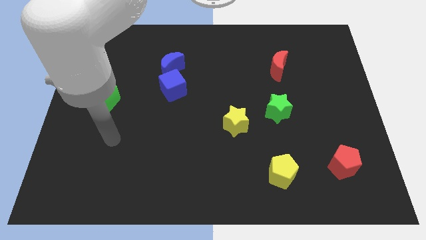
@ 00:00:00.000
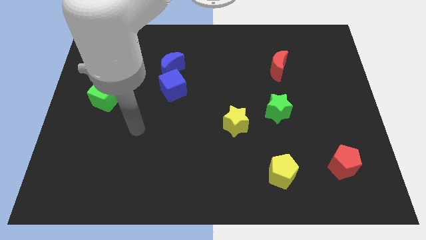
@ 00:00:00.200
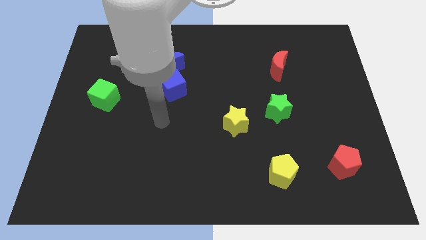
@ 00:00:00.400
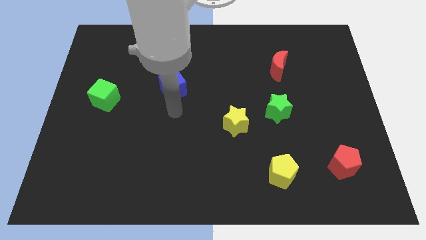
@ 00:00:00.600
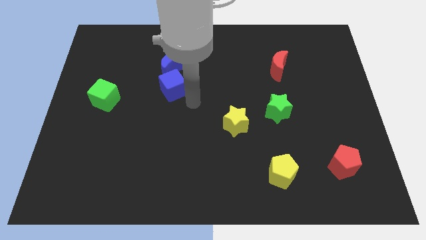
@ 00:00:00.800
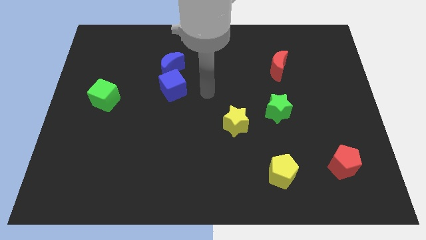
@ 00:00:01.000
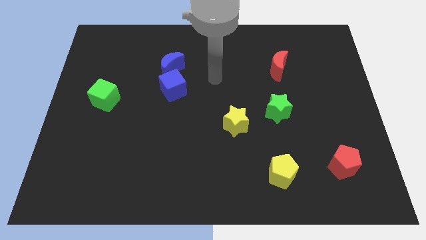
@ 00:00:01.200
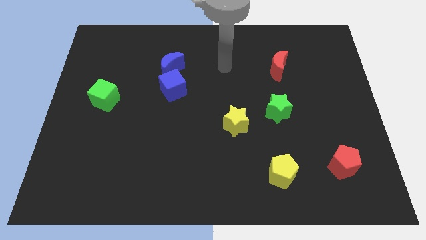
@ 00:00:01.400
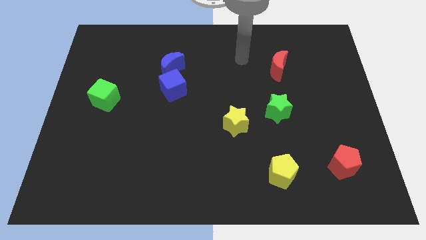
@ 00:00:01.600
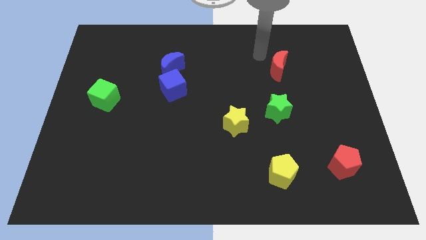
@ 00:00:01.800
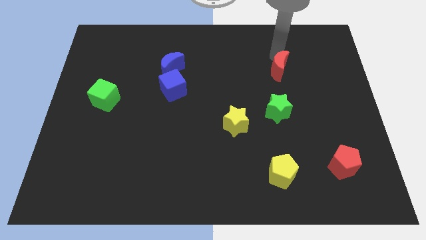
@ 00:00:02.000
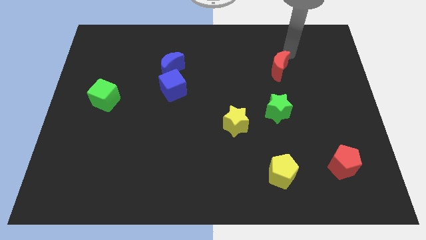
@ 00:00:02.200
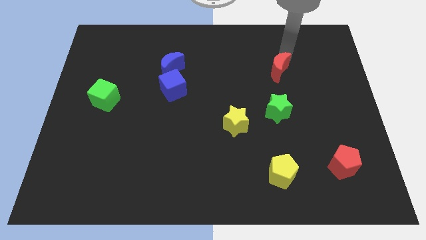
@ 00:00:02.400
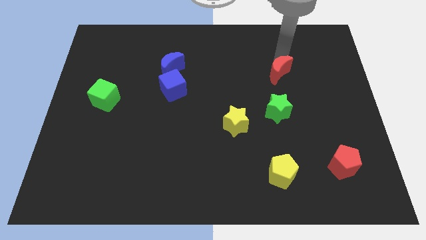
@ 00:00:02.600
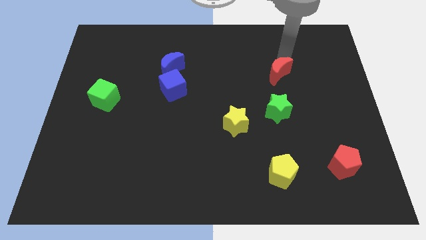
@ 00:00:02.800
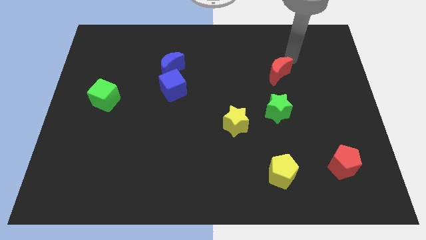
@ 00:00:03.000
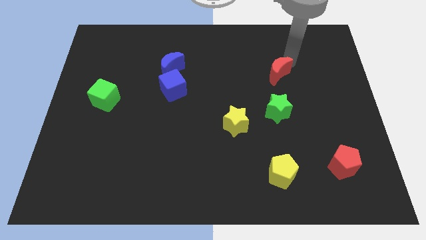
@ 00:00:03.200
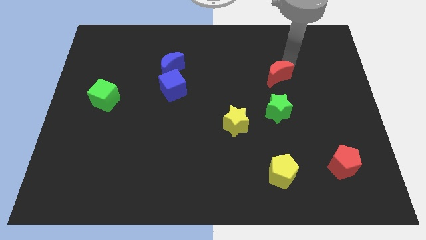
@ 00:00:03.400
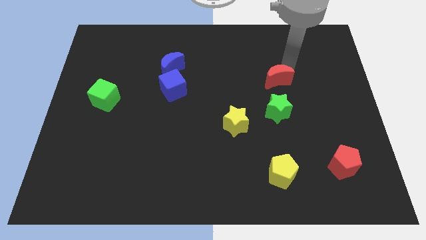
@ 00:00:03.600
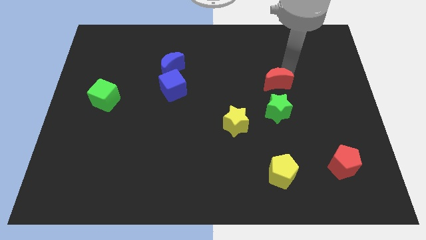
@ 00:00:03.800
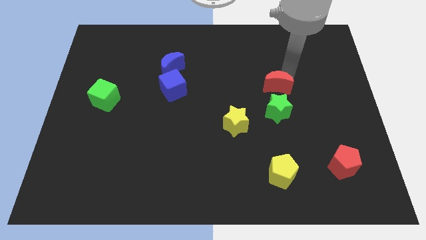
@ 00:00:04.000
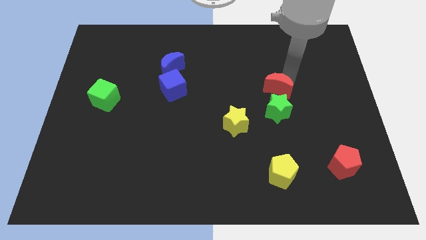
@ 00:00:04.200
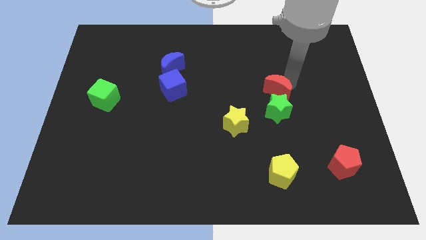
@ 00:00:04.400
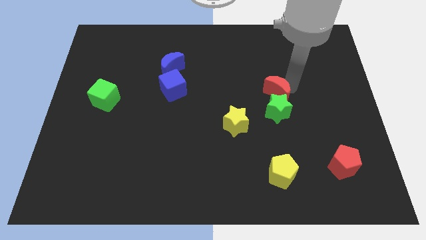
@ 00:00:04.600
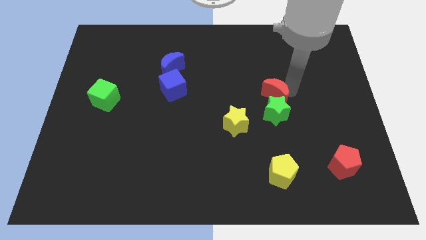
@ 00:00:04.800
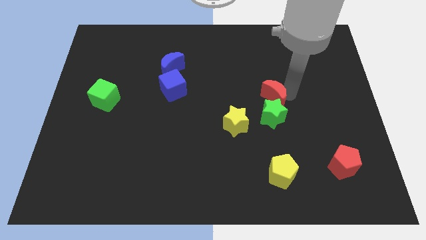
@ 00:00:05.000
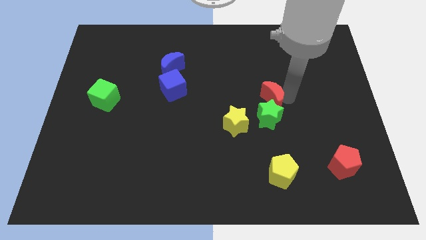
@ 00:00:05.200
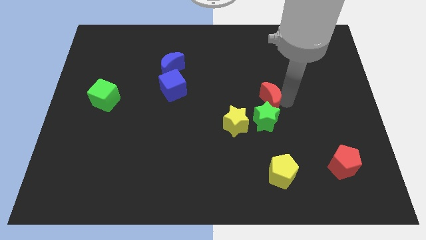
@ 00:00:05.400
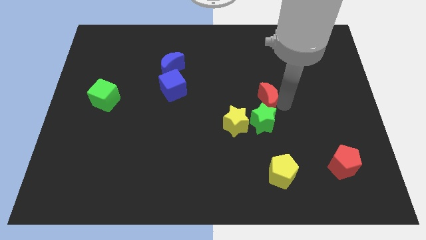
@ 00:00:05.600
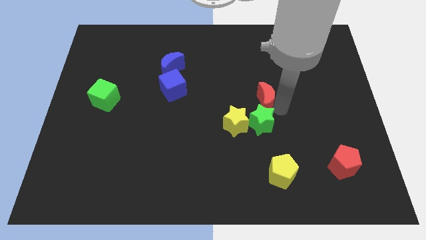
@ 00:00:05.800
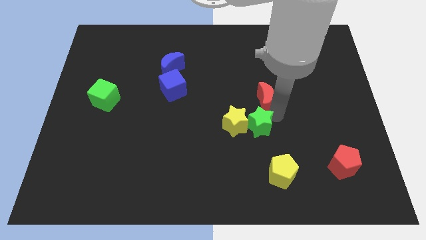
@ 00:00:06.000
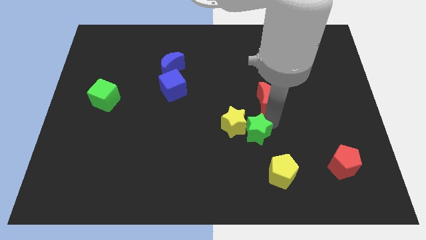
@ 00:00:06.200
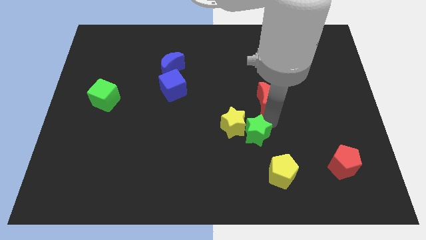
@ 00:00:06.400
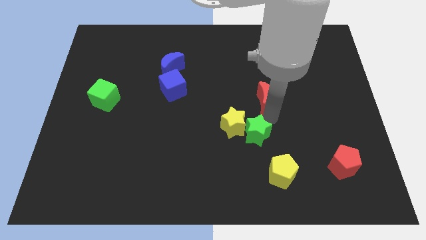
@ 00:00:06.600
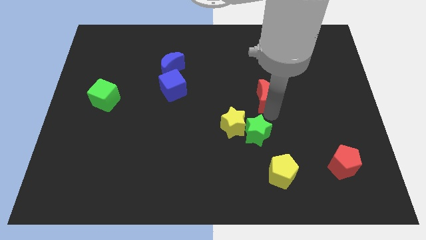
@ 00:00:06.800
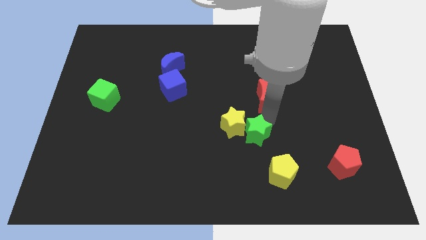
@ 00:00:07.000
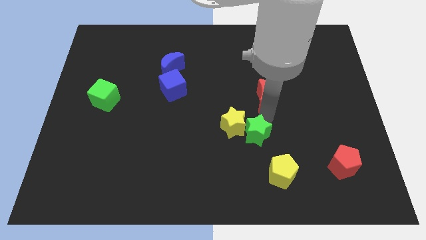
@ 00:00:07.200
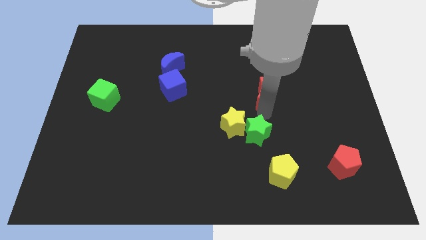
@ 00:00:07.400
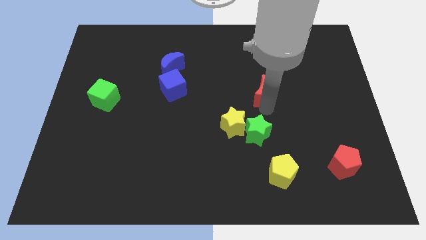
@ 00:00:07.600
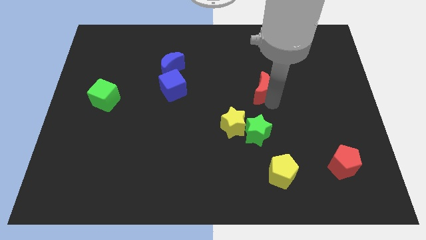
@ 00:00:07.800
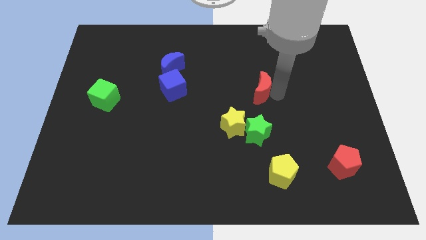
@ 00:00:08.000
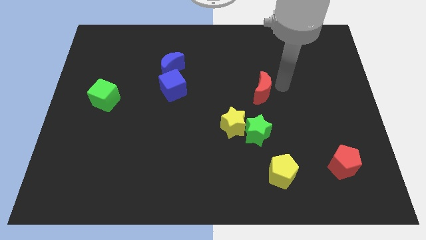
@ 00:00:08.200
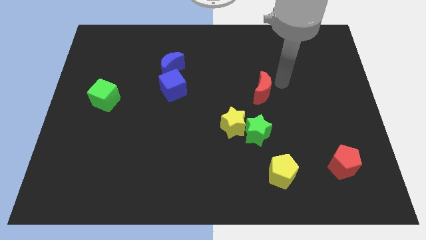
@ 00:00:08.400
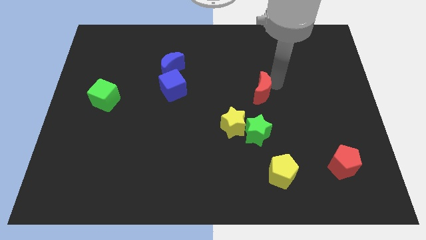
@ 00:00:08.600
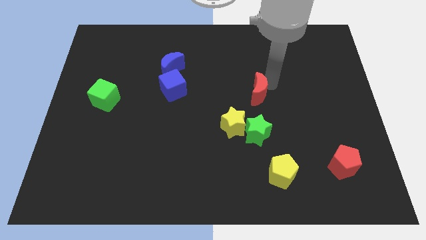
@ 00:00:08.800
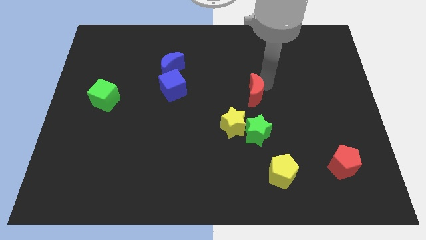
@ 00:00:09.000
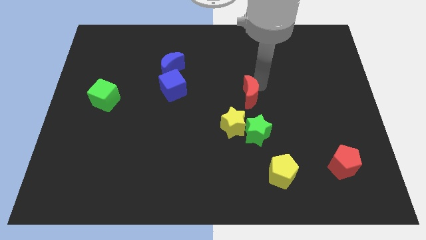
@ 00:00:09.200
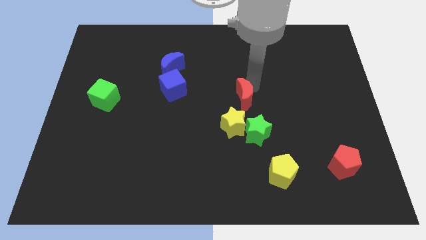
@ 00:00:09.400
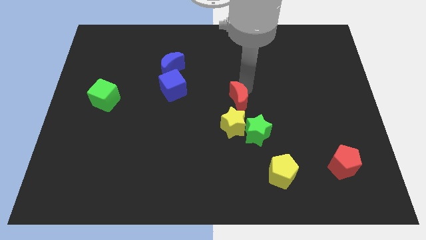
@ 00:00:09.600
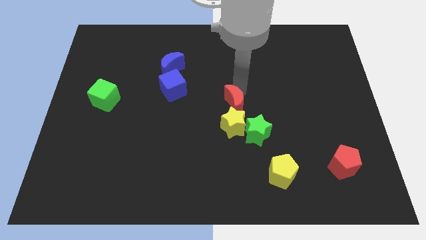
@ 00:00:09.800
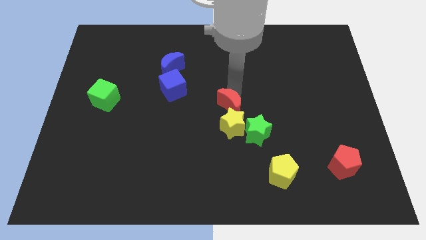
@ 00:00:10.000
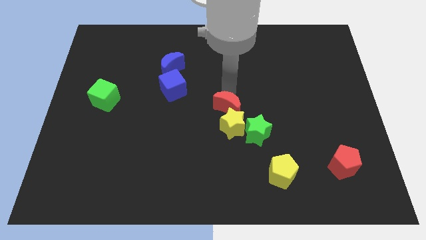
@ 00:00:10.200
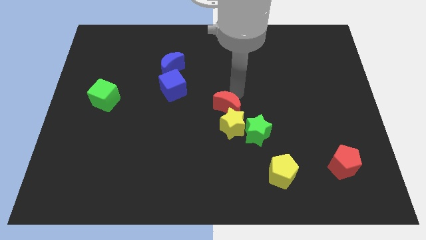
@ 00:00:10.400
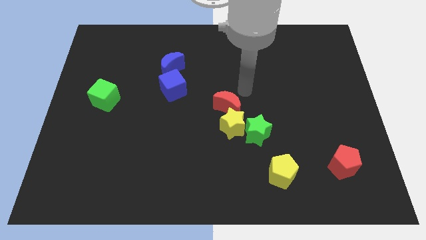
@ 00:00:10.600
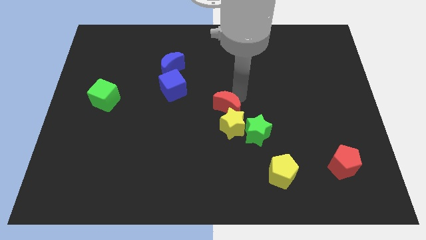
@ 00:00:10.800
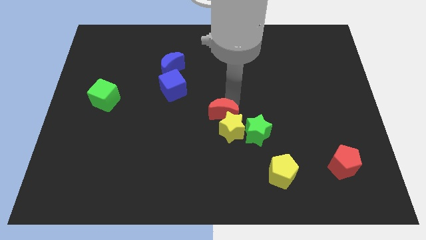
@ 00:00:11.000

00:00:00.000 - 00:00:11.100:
move the red moon down and to the left

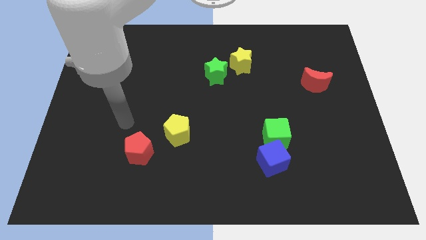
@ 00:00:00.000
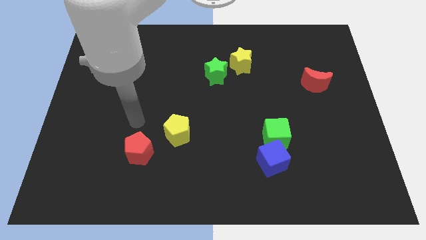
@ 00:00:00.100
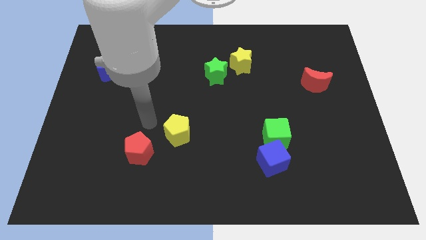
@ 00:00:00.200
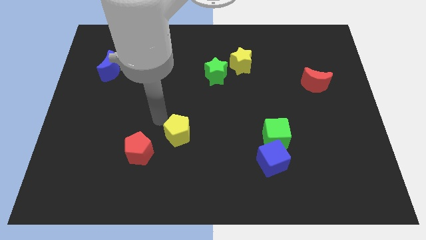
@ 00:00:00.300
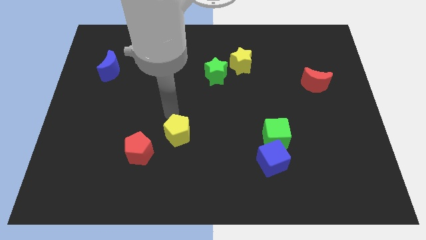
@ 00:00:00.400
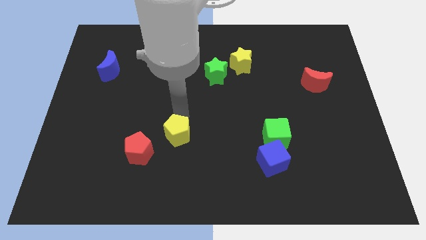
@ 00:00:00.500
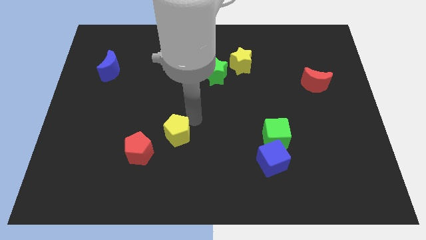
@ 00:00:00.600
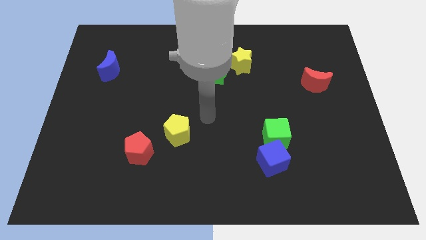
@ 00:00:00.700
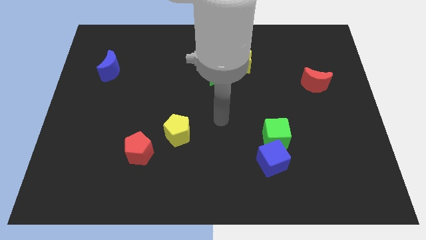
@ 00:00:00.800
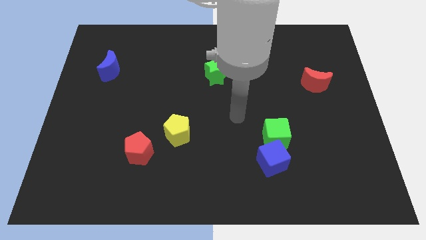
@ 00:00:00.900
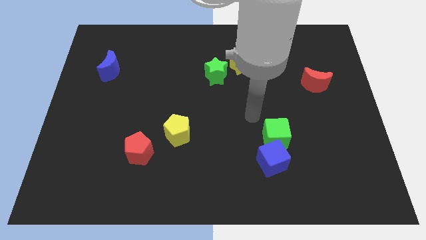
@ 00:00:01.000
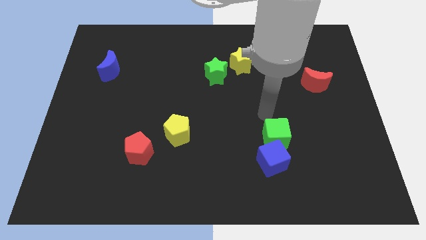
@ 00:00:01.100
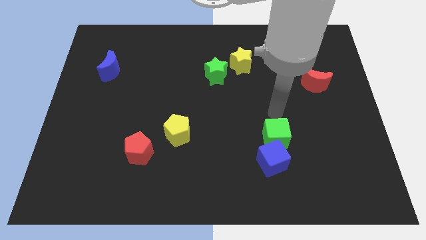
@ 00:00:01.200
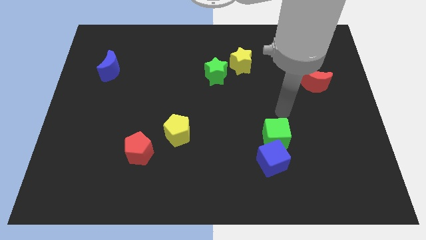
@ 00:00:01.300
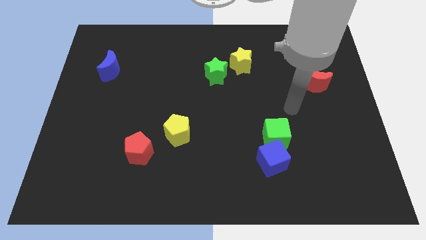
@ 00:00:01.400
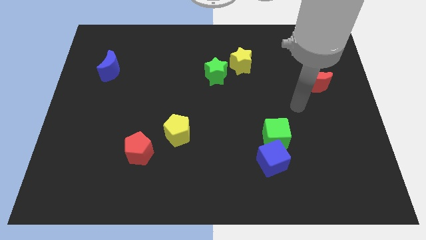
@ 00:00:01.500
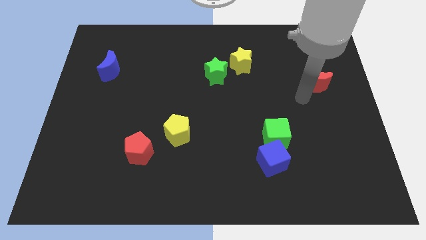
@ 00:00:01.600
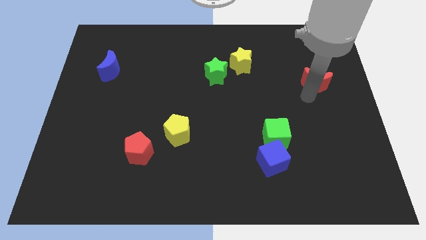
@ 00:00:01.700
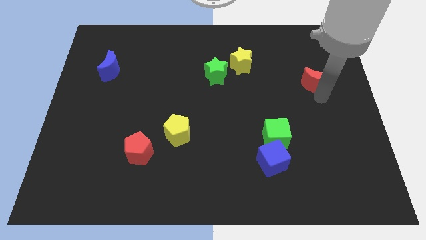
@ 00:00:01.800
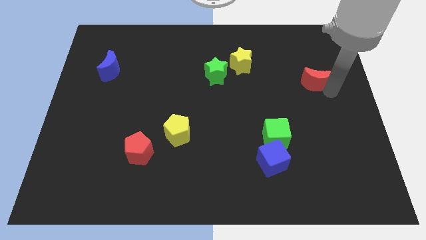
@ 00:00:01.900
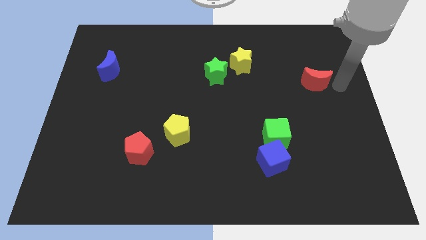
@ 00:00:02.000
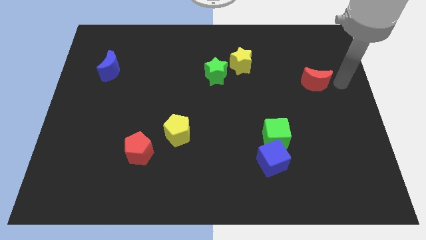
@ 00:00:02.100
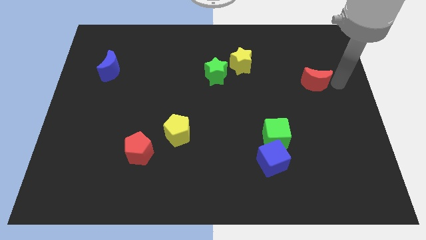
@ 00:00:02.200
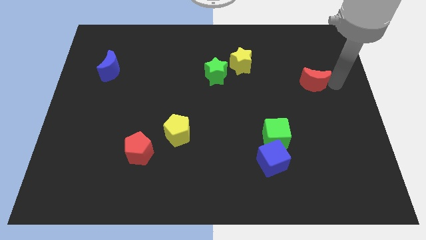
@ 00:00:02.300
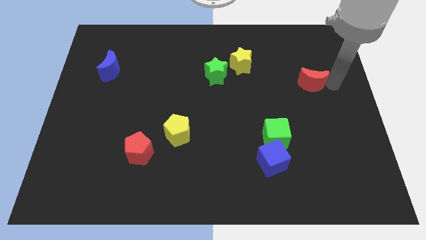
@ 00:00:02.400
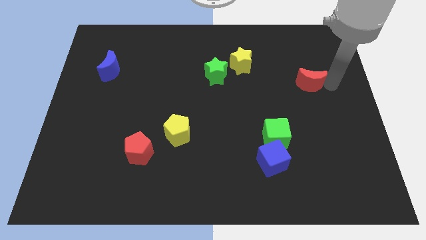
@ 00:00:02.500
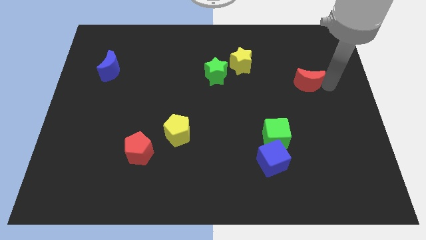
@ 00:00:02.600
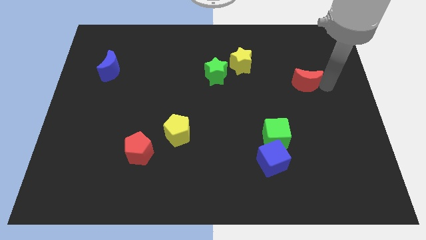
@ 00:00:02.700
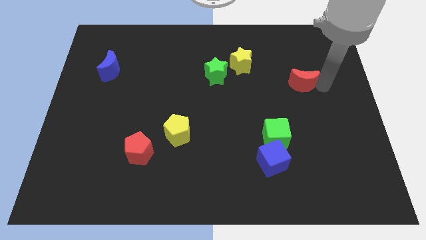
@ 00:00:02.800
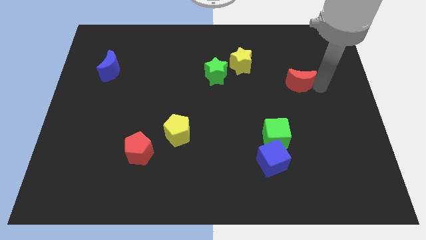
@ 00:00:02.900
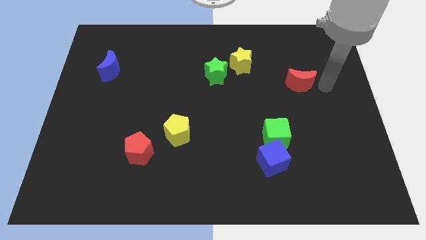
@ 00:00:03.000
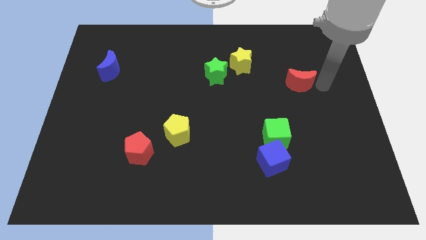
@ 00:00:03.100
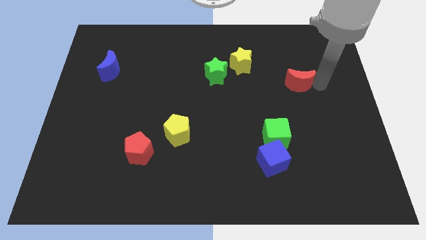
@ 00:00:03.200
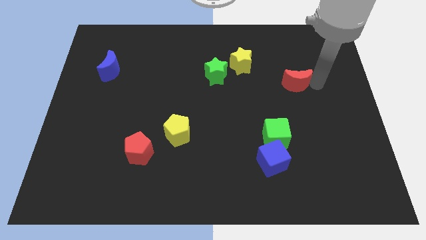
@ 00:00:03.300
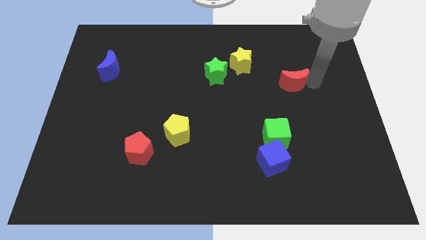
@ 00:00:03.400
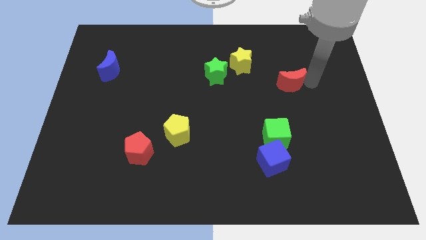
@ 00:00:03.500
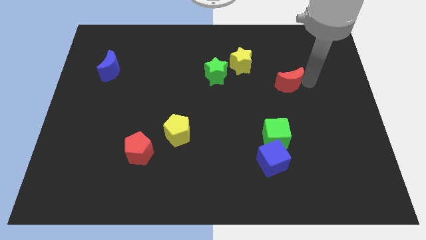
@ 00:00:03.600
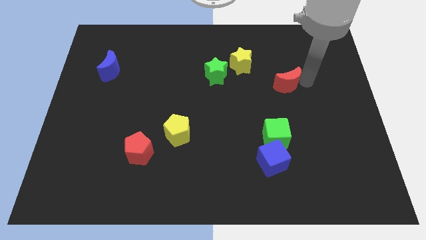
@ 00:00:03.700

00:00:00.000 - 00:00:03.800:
push the red moon left slightly
